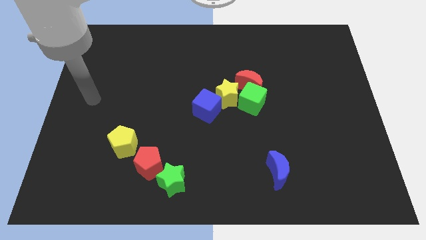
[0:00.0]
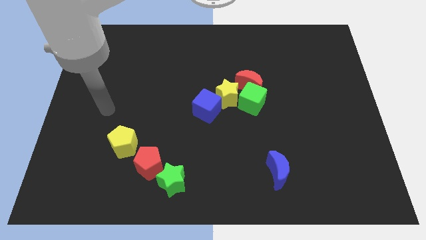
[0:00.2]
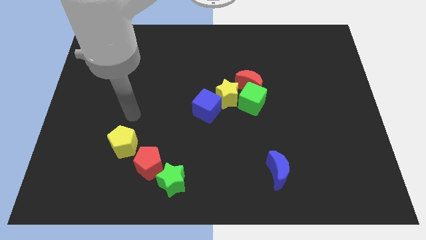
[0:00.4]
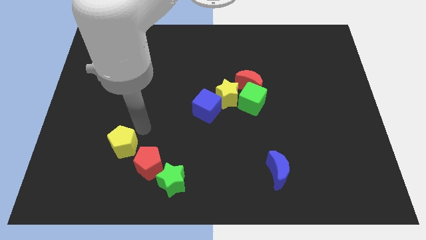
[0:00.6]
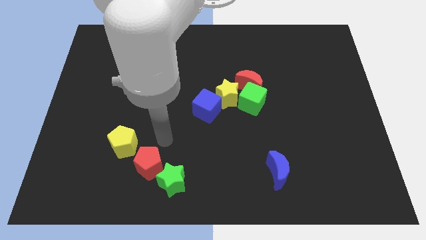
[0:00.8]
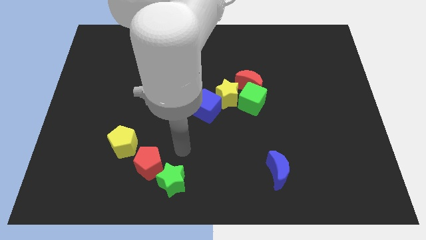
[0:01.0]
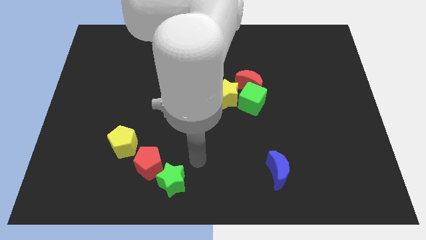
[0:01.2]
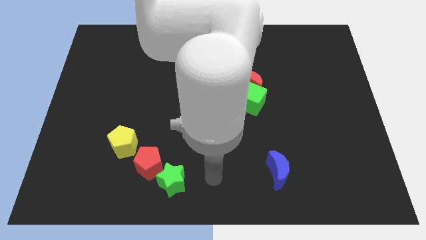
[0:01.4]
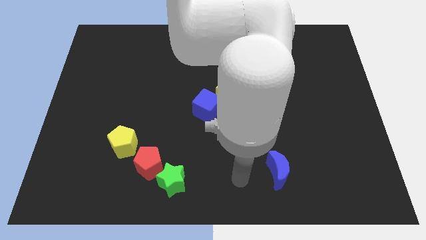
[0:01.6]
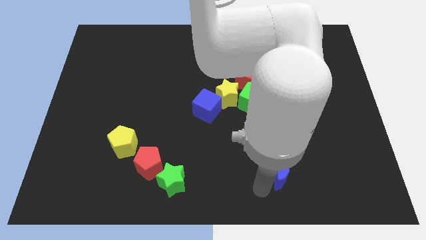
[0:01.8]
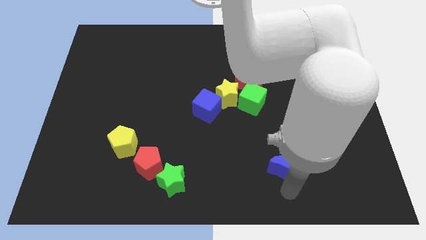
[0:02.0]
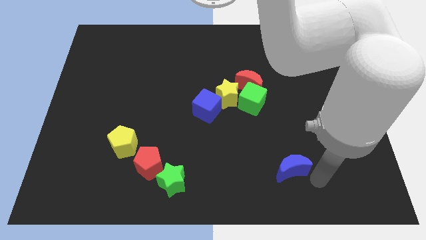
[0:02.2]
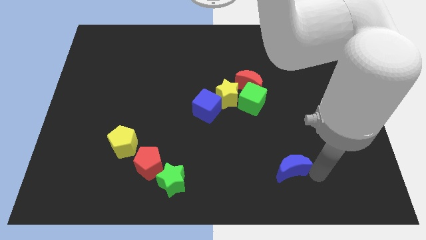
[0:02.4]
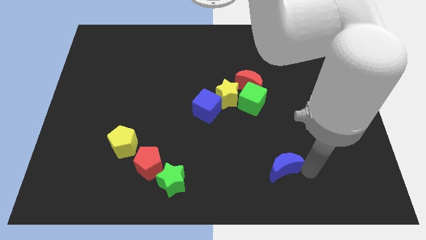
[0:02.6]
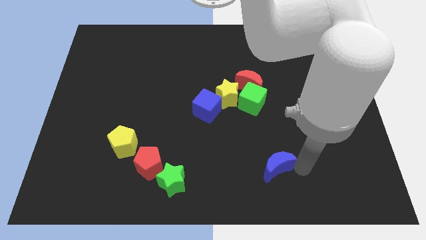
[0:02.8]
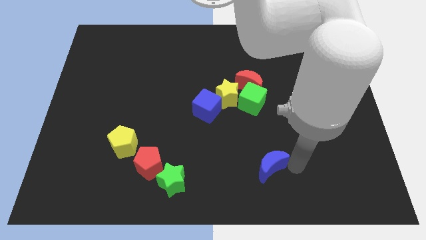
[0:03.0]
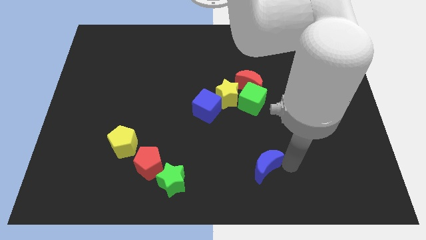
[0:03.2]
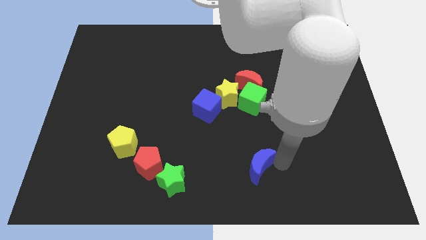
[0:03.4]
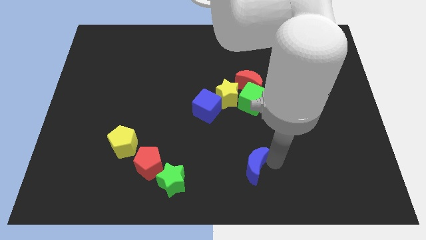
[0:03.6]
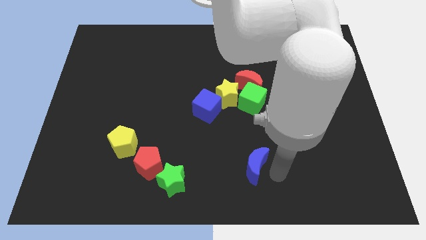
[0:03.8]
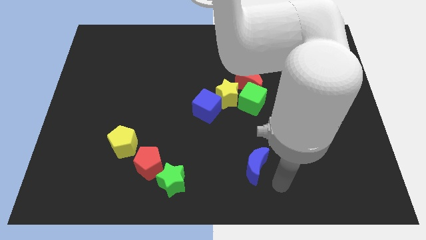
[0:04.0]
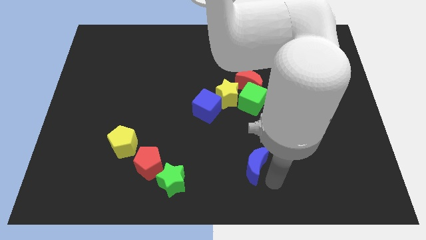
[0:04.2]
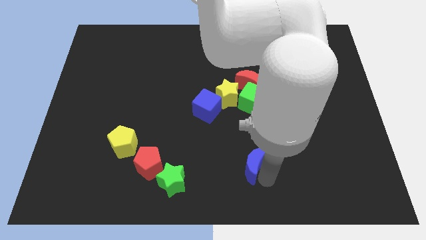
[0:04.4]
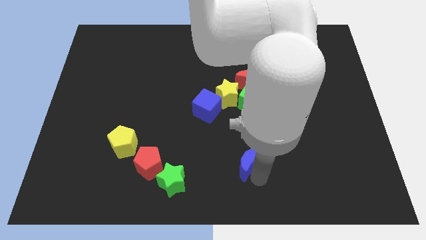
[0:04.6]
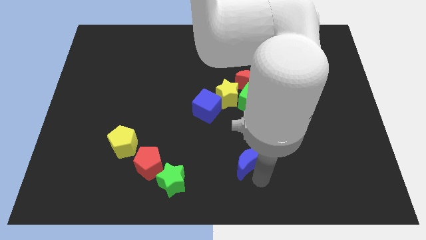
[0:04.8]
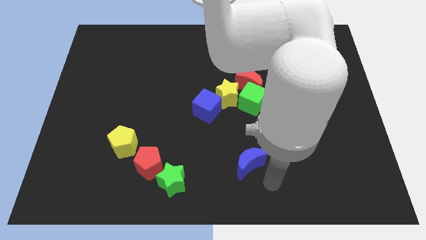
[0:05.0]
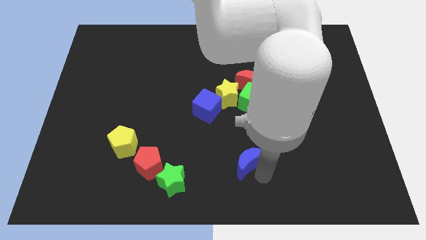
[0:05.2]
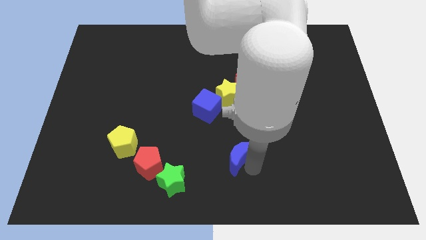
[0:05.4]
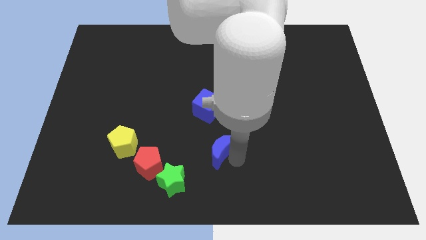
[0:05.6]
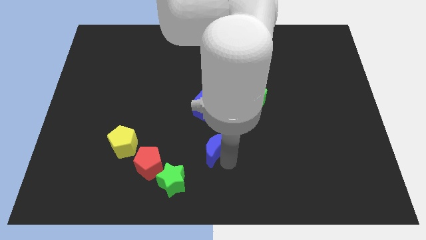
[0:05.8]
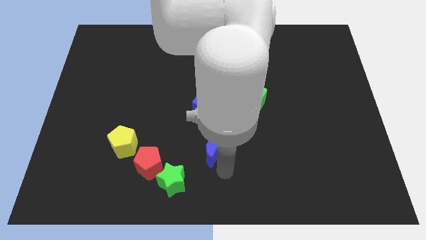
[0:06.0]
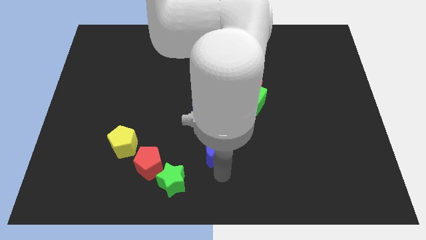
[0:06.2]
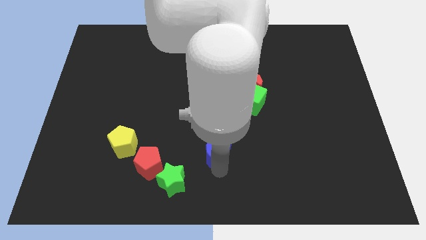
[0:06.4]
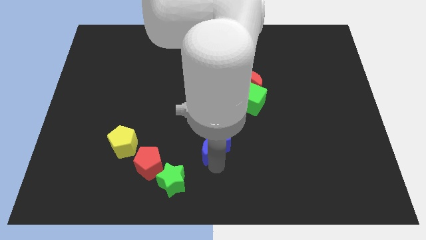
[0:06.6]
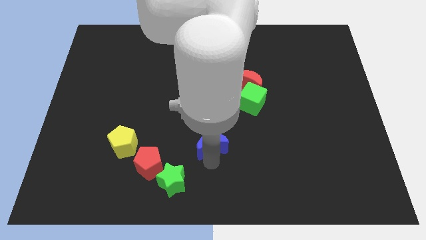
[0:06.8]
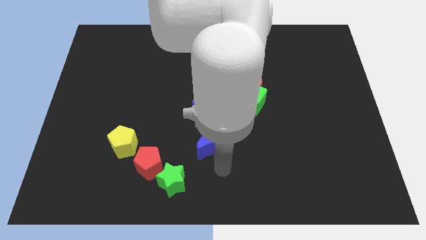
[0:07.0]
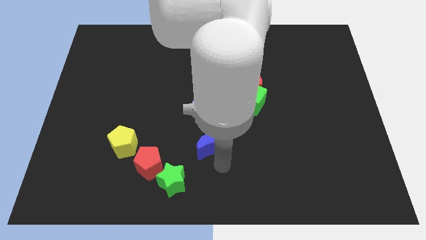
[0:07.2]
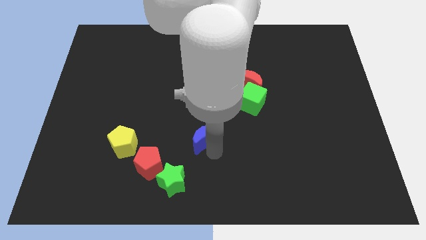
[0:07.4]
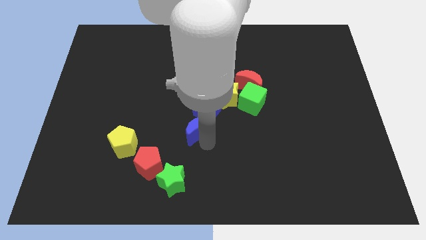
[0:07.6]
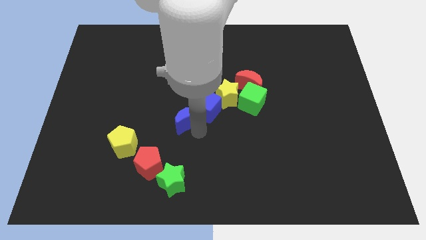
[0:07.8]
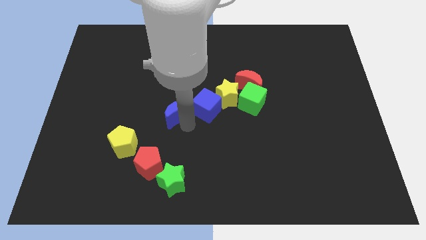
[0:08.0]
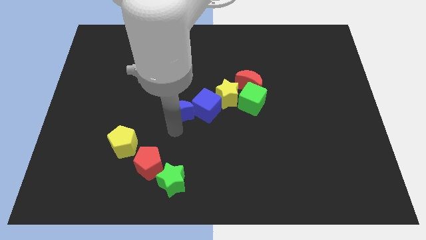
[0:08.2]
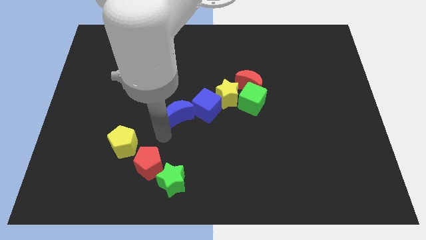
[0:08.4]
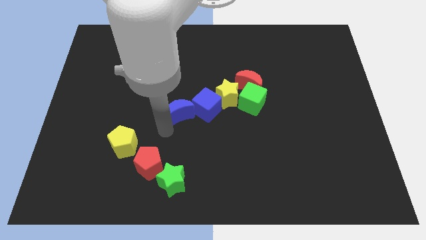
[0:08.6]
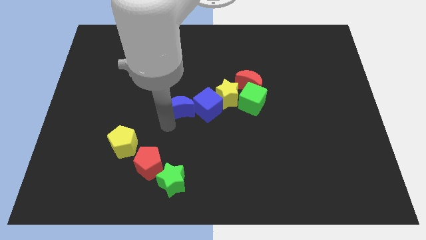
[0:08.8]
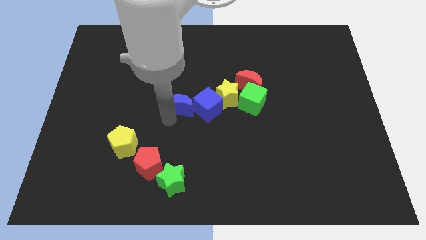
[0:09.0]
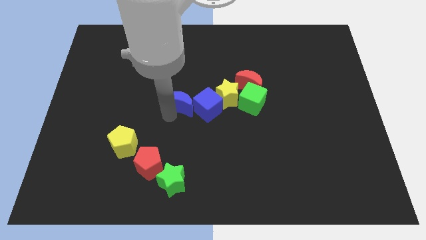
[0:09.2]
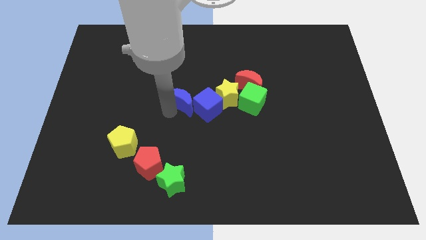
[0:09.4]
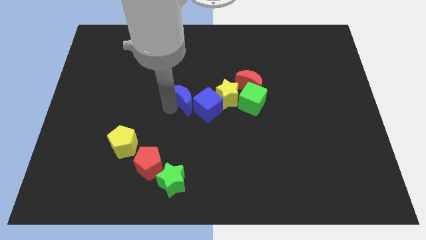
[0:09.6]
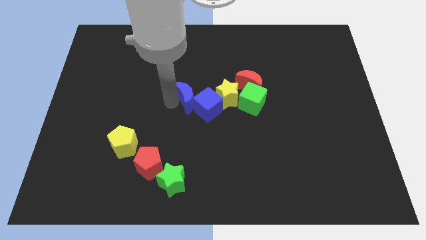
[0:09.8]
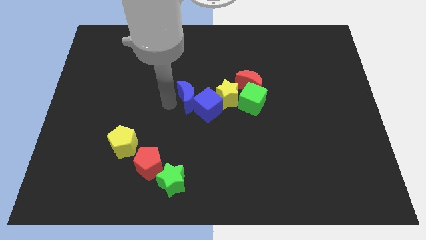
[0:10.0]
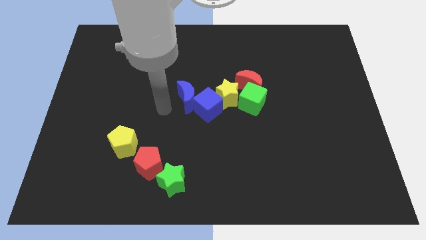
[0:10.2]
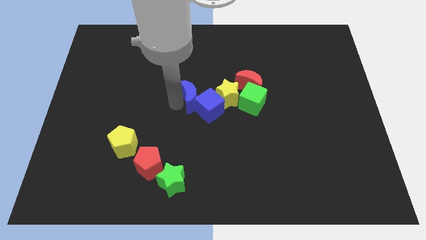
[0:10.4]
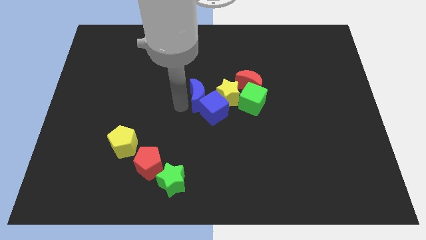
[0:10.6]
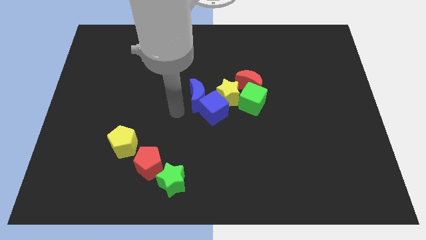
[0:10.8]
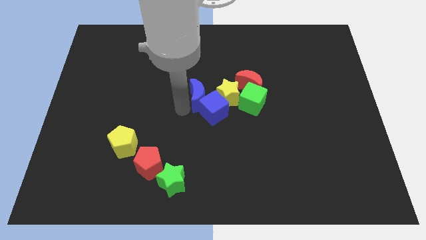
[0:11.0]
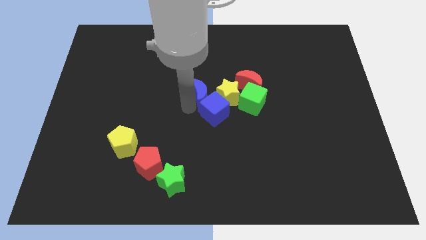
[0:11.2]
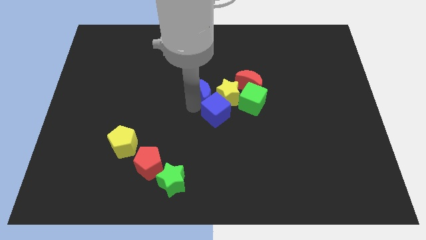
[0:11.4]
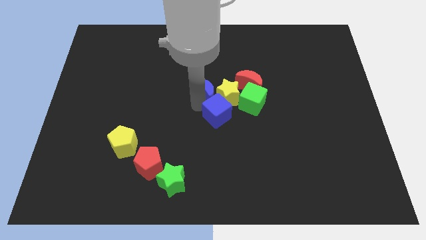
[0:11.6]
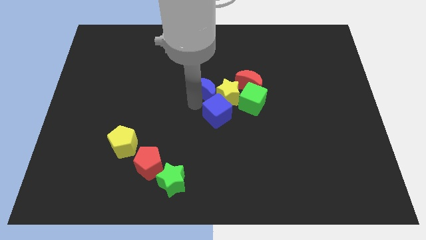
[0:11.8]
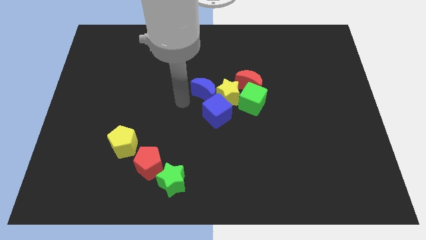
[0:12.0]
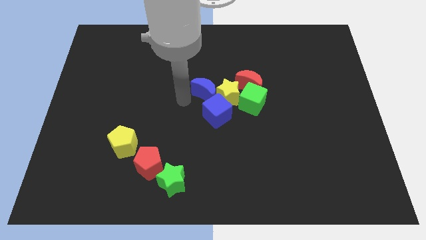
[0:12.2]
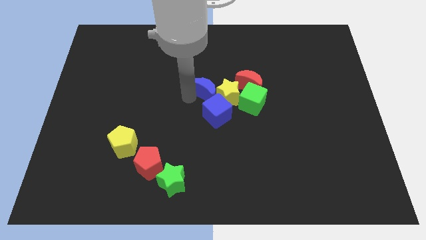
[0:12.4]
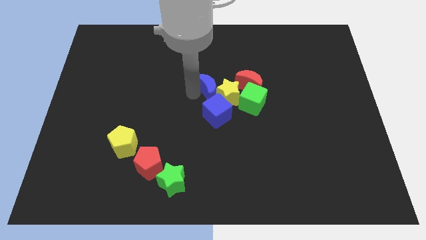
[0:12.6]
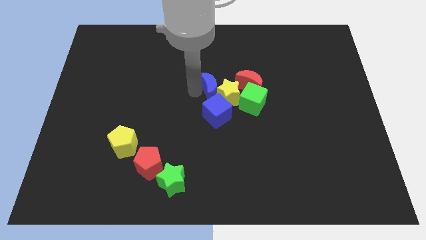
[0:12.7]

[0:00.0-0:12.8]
put the blue moon to the top left of the green cube

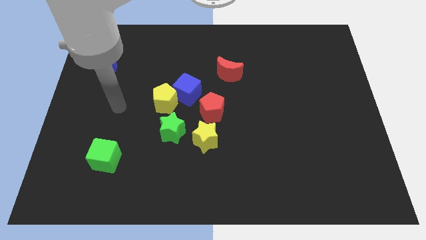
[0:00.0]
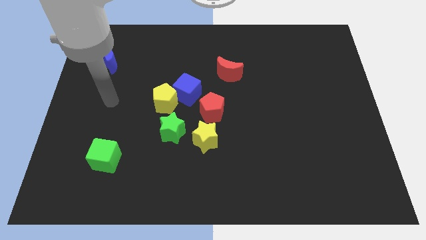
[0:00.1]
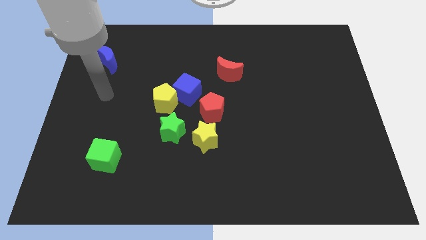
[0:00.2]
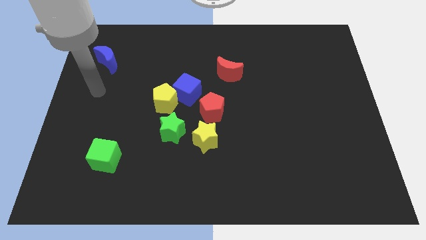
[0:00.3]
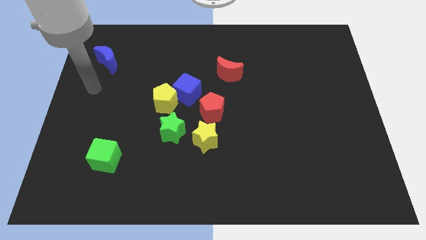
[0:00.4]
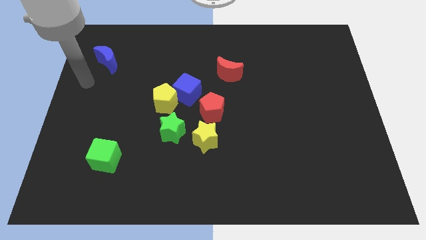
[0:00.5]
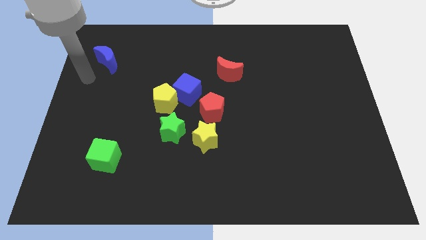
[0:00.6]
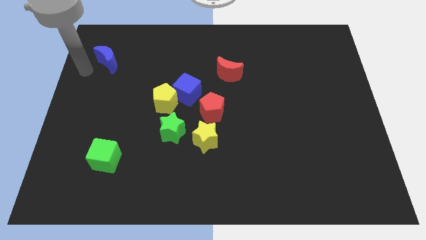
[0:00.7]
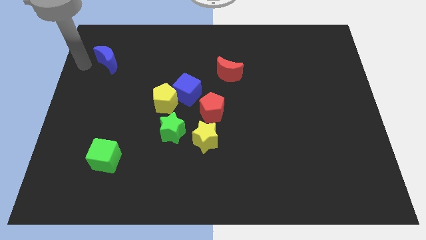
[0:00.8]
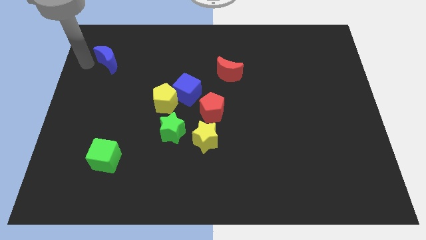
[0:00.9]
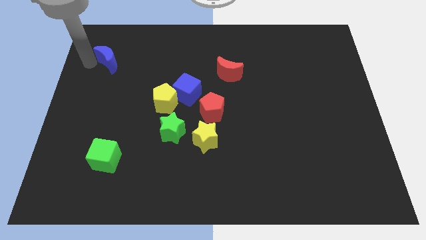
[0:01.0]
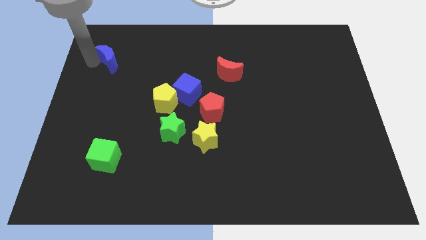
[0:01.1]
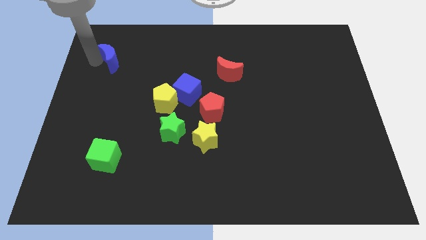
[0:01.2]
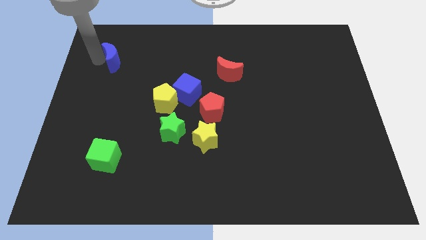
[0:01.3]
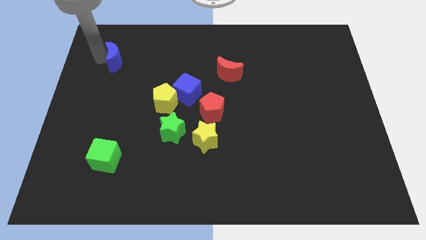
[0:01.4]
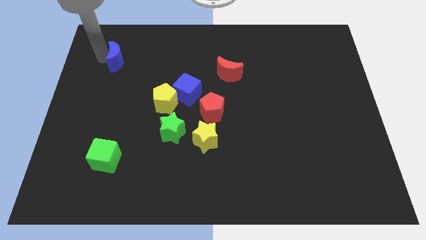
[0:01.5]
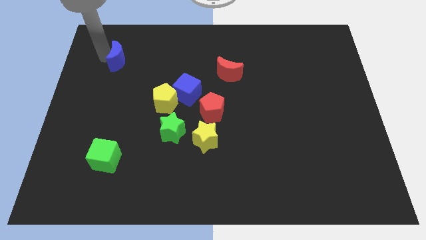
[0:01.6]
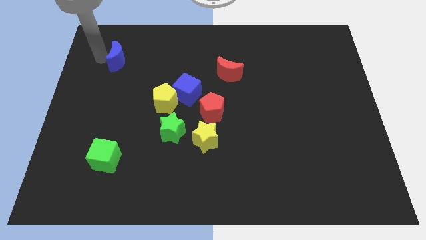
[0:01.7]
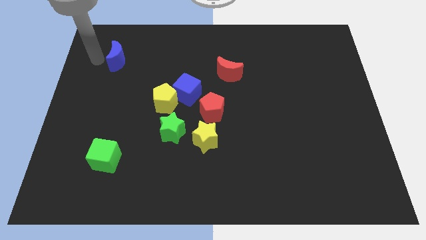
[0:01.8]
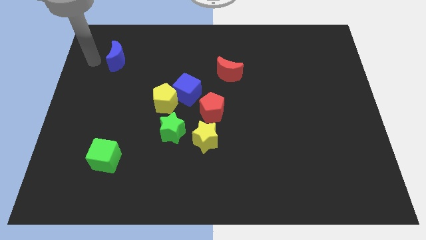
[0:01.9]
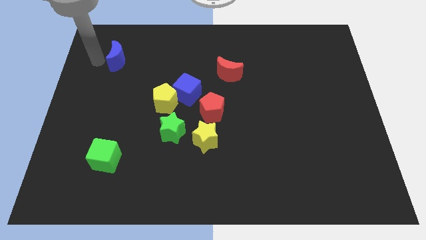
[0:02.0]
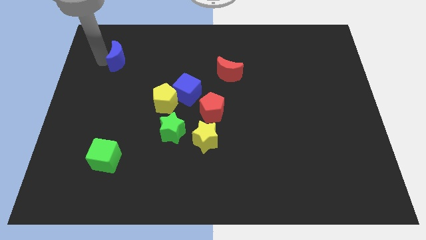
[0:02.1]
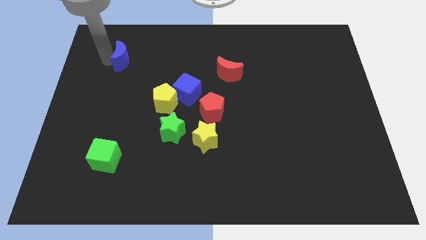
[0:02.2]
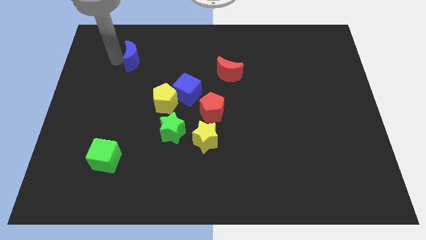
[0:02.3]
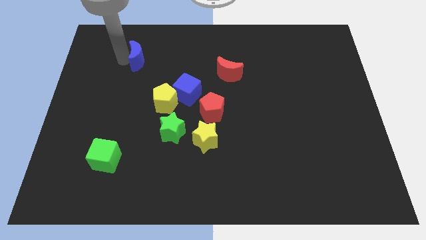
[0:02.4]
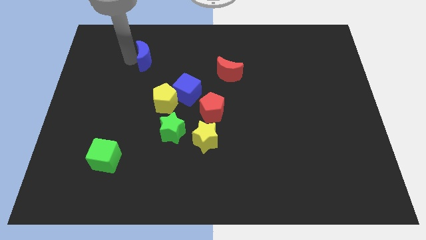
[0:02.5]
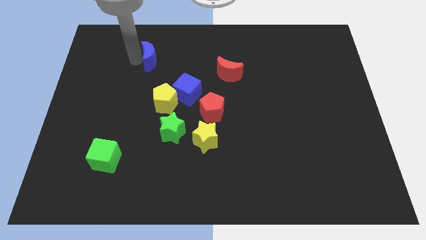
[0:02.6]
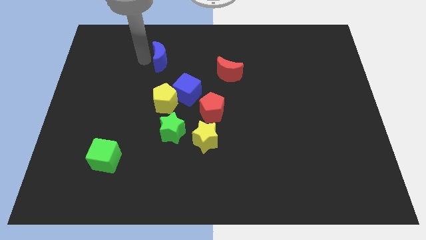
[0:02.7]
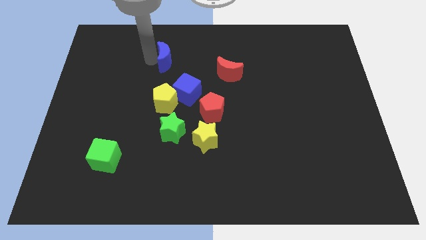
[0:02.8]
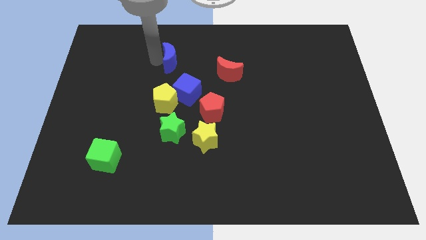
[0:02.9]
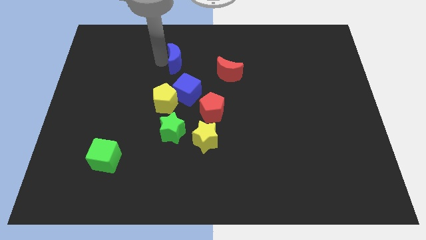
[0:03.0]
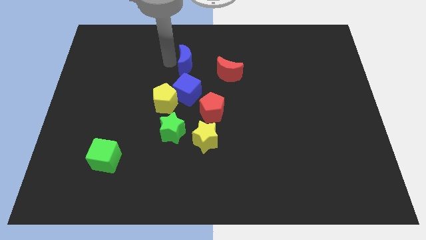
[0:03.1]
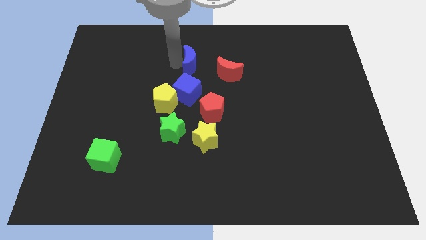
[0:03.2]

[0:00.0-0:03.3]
slide the blue moon diagonally up and to the left of the red moon
